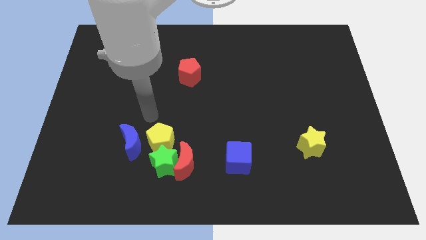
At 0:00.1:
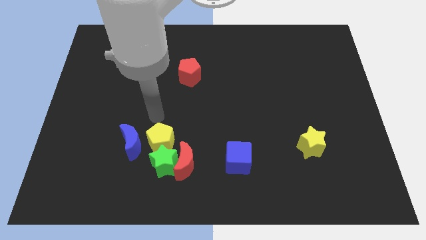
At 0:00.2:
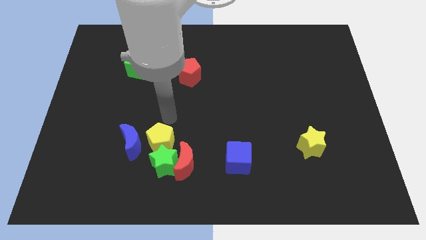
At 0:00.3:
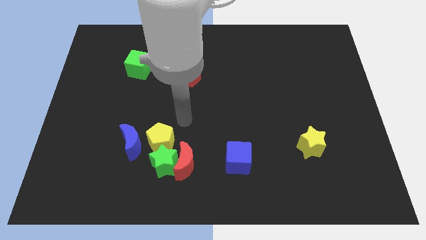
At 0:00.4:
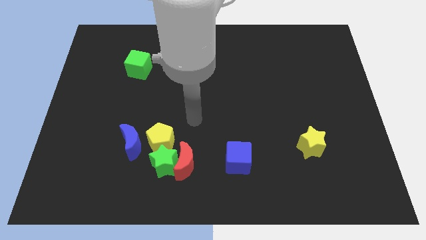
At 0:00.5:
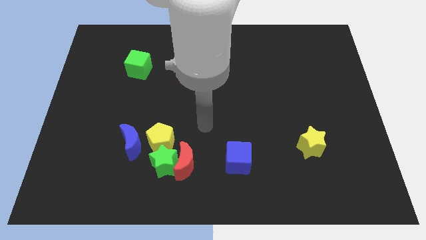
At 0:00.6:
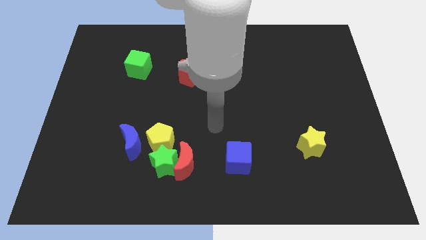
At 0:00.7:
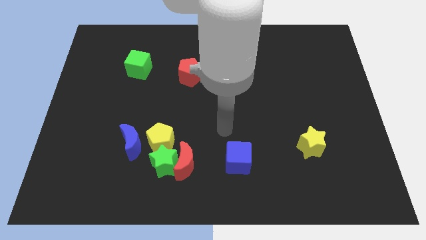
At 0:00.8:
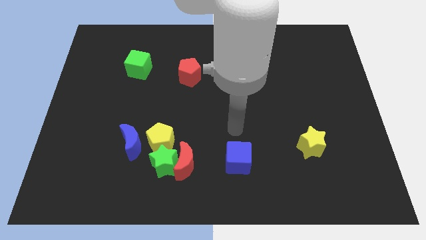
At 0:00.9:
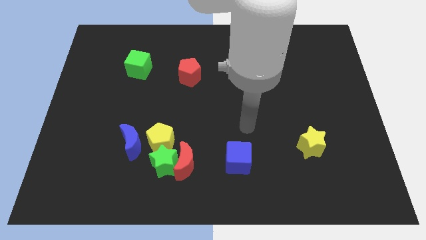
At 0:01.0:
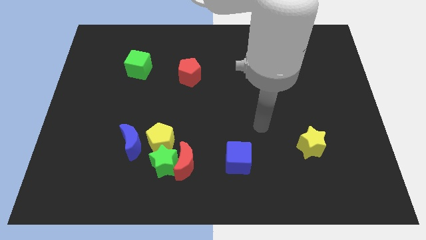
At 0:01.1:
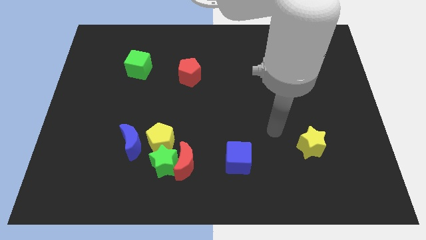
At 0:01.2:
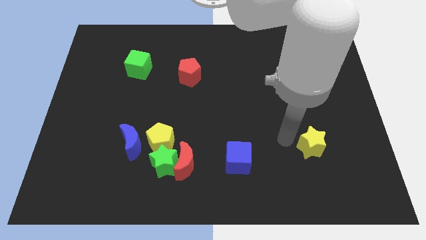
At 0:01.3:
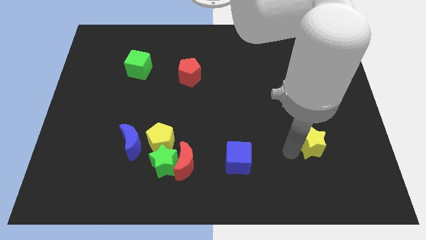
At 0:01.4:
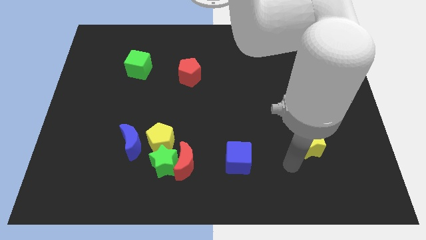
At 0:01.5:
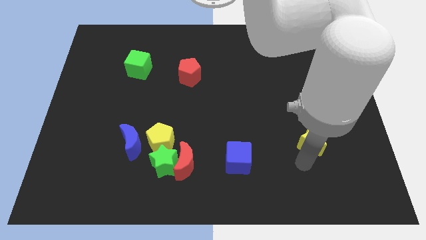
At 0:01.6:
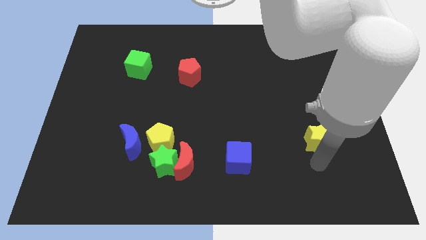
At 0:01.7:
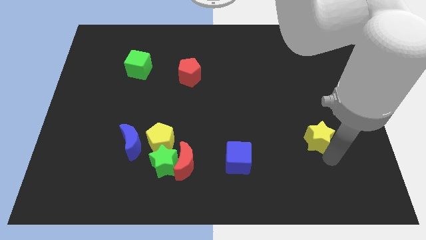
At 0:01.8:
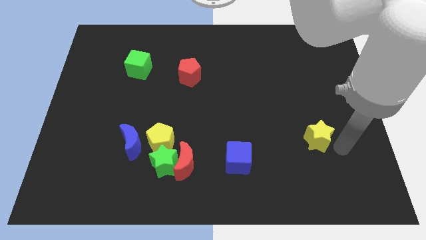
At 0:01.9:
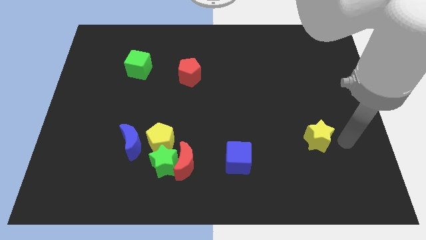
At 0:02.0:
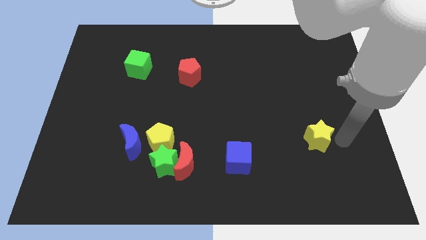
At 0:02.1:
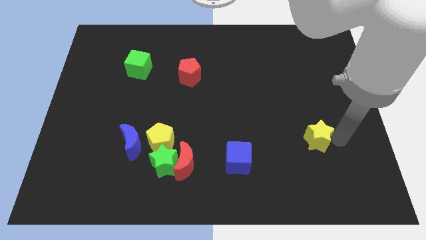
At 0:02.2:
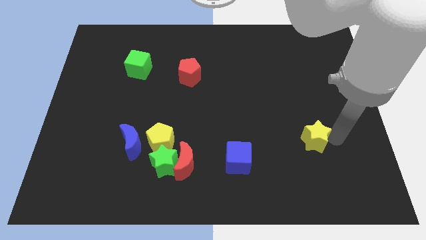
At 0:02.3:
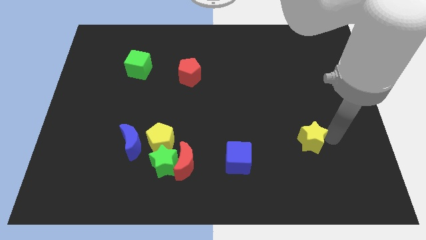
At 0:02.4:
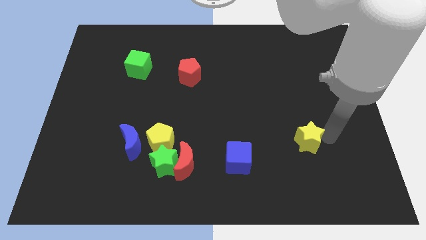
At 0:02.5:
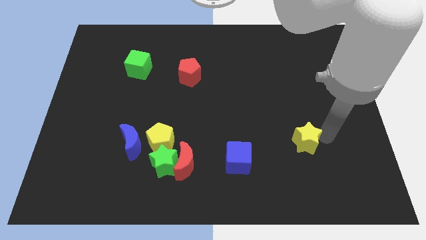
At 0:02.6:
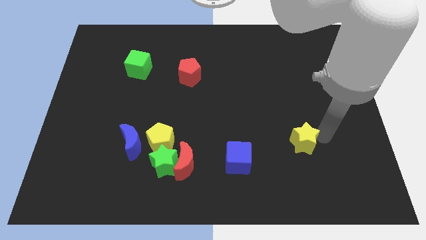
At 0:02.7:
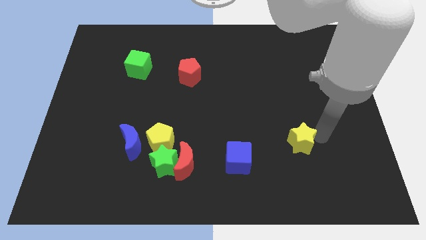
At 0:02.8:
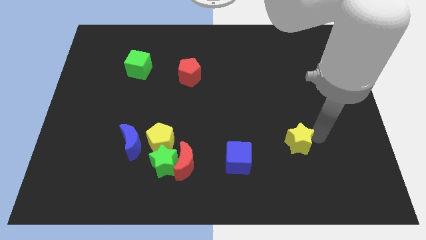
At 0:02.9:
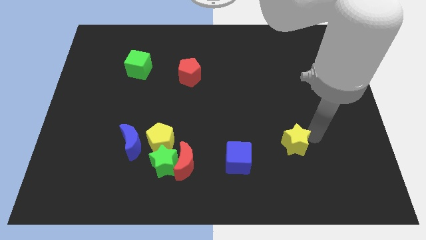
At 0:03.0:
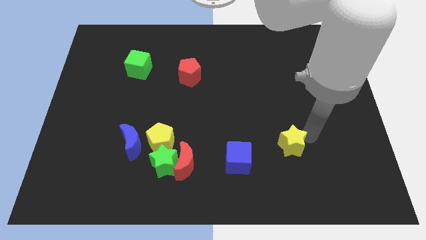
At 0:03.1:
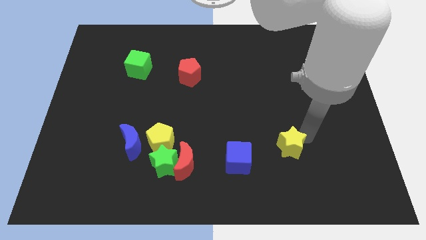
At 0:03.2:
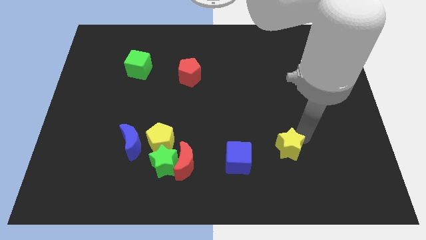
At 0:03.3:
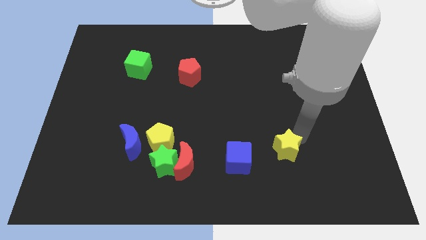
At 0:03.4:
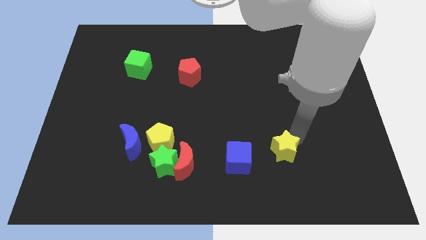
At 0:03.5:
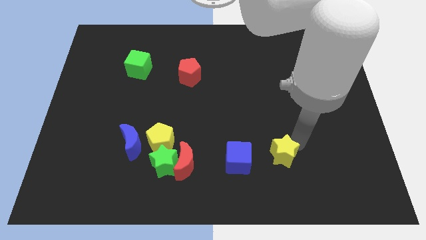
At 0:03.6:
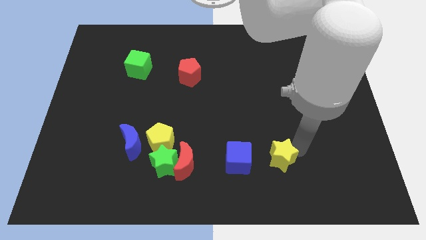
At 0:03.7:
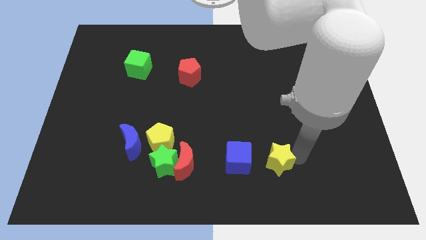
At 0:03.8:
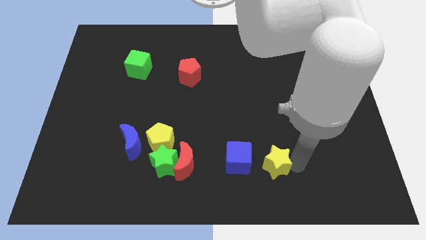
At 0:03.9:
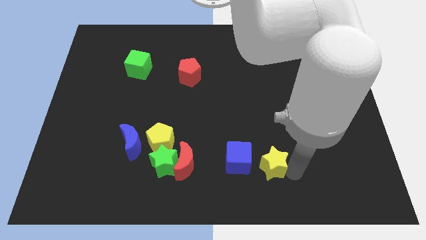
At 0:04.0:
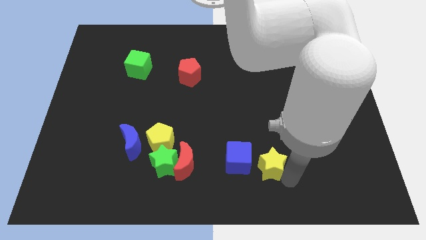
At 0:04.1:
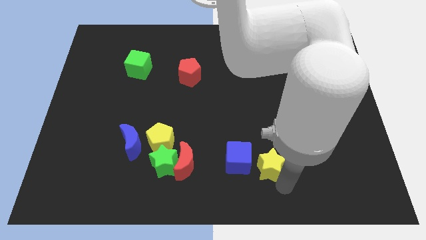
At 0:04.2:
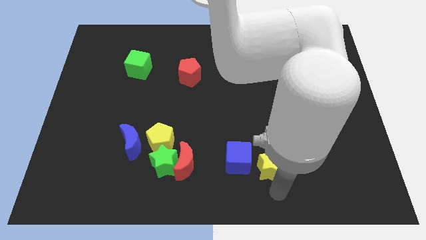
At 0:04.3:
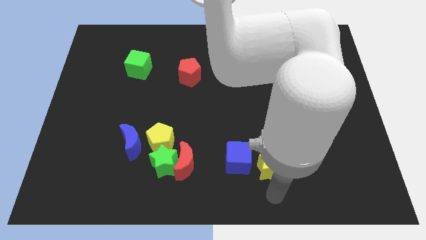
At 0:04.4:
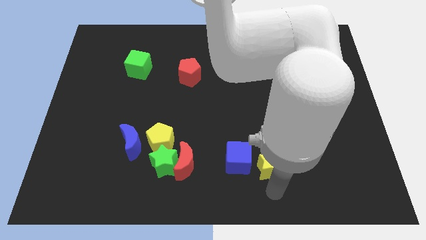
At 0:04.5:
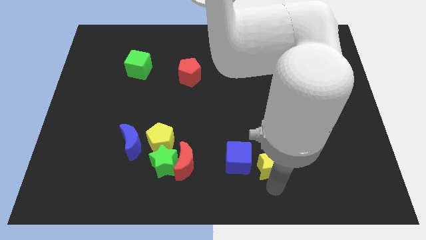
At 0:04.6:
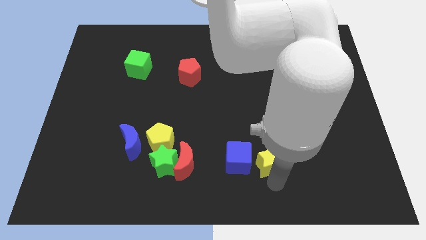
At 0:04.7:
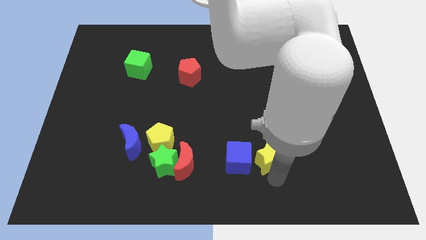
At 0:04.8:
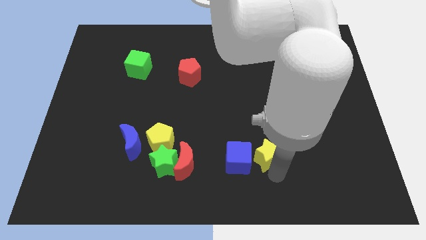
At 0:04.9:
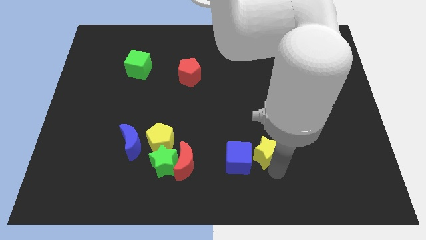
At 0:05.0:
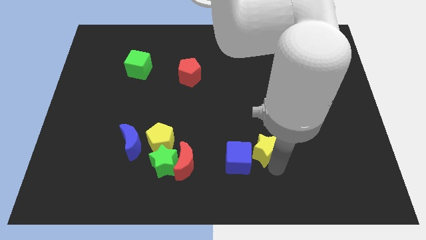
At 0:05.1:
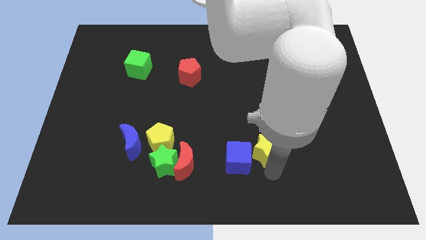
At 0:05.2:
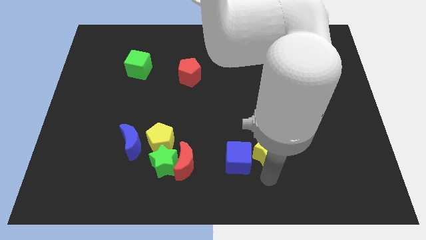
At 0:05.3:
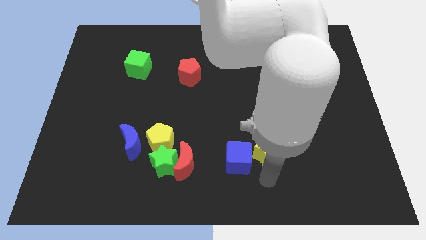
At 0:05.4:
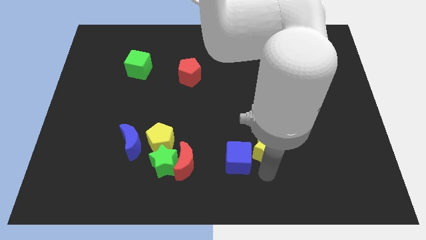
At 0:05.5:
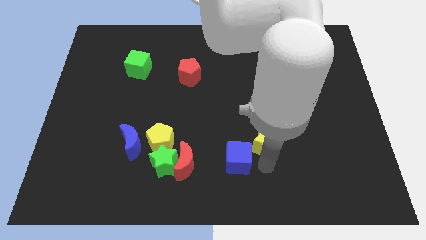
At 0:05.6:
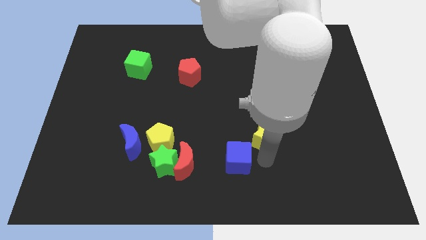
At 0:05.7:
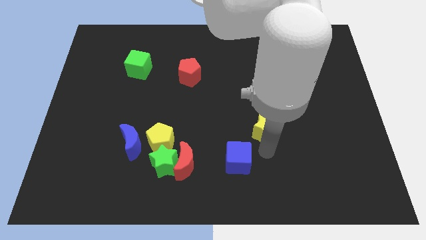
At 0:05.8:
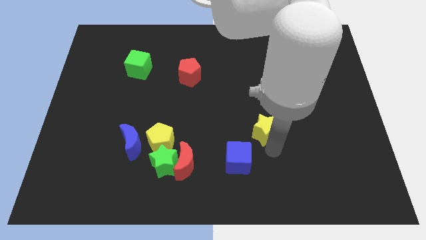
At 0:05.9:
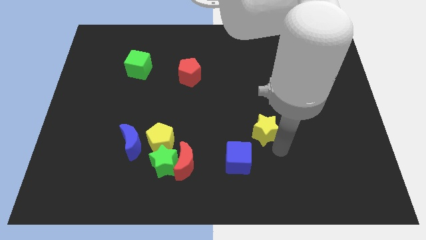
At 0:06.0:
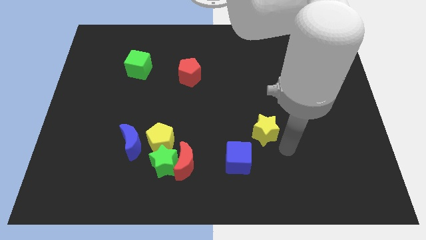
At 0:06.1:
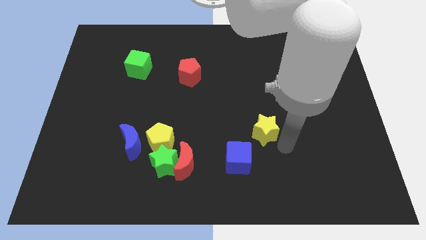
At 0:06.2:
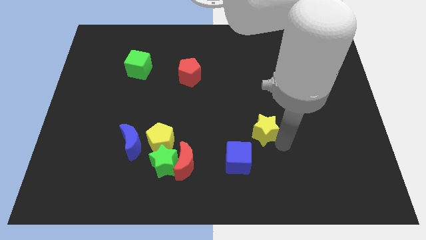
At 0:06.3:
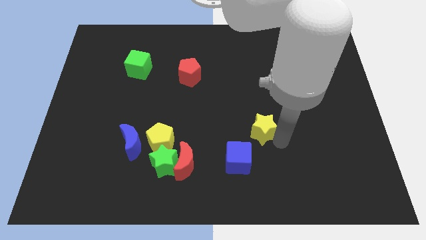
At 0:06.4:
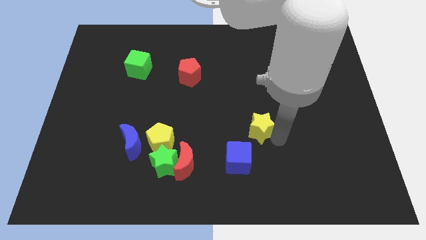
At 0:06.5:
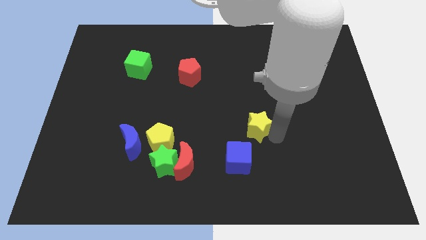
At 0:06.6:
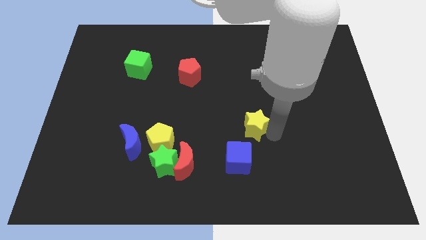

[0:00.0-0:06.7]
push the yellow star to the center of the board
